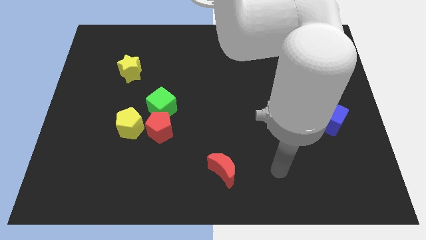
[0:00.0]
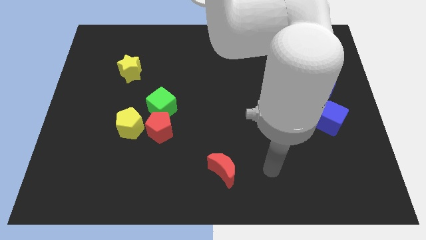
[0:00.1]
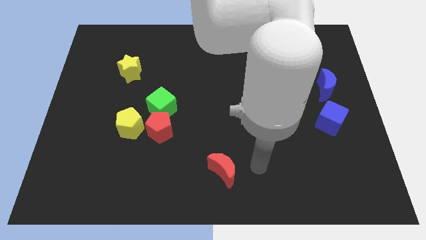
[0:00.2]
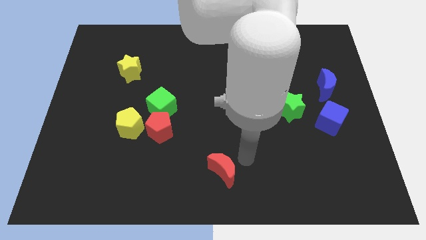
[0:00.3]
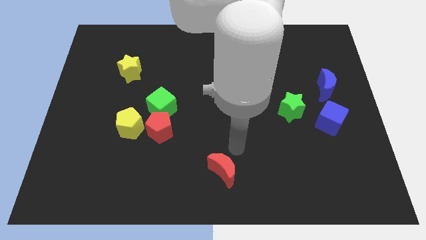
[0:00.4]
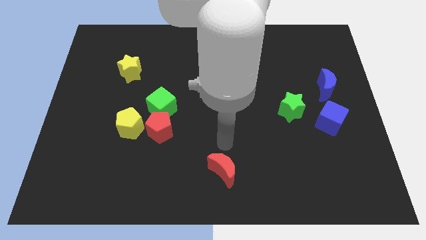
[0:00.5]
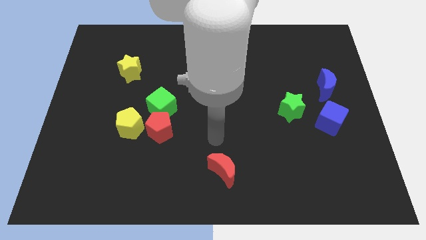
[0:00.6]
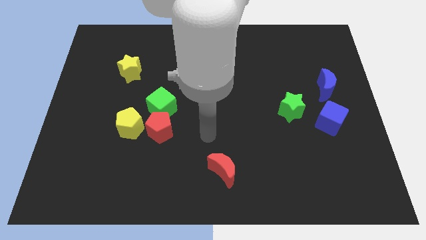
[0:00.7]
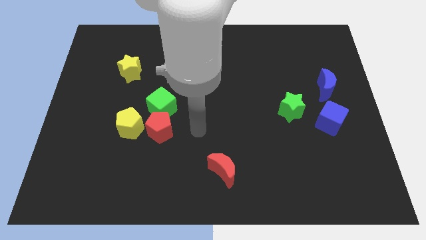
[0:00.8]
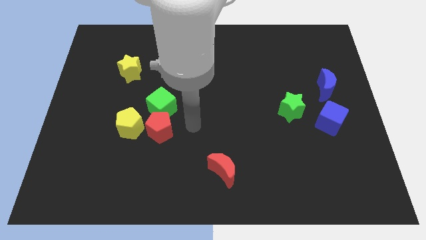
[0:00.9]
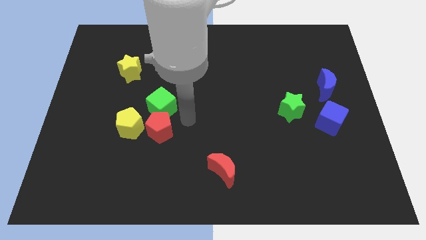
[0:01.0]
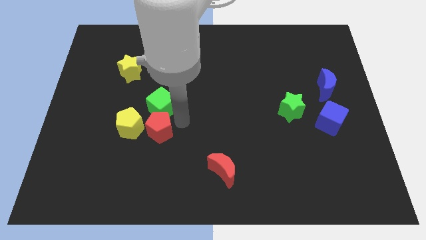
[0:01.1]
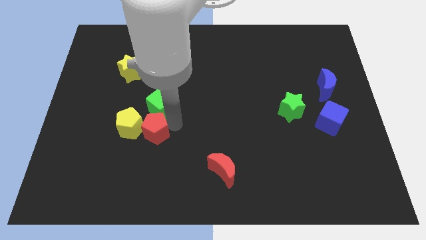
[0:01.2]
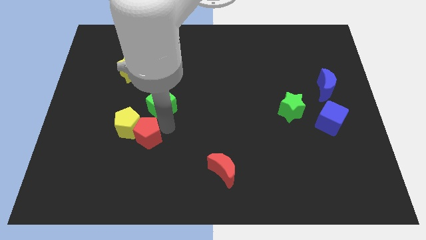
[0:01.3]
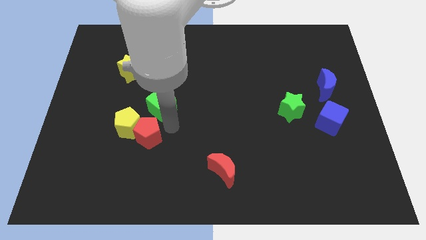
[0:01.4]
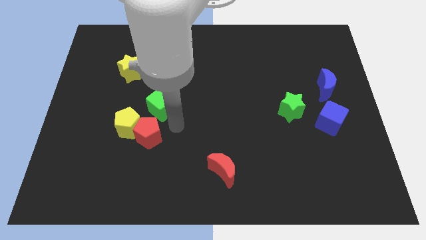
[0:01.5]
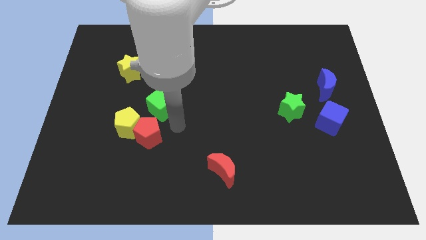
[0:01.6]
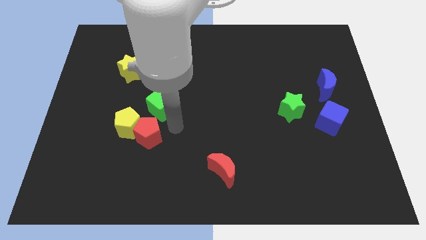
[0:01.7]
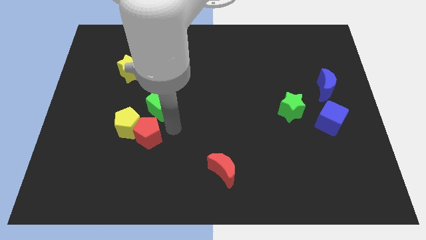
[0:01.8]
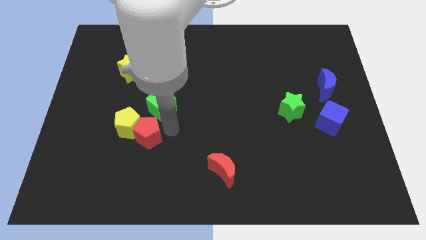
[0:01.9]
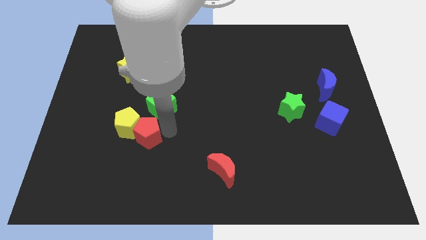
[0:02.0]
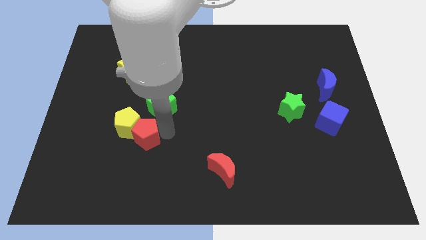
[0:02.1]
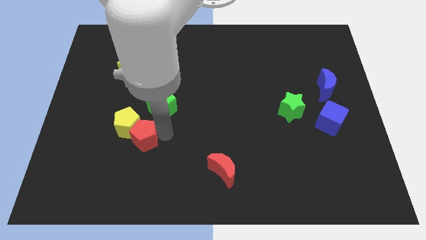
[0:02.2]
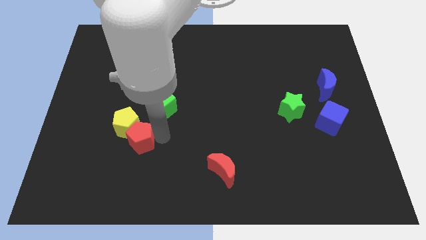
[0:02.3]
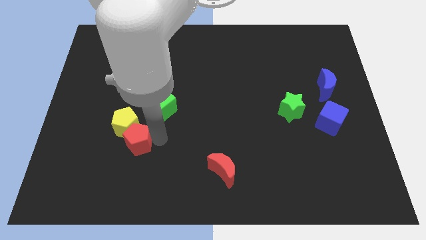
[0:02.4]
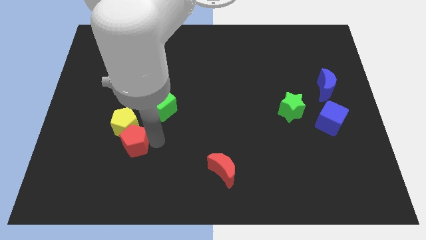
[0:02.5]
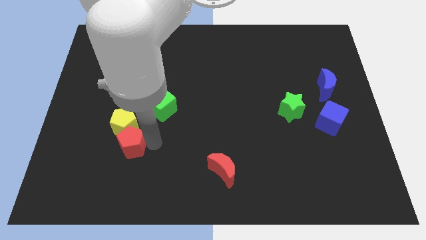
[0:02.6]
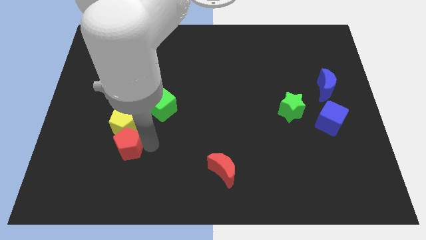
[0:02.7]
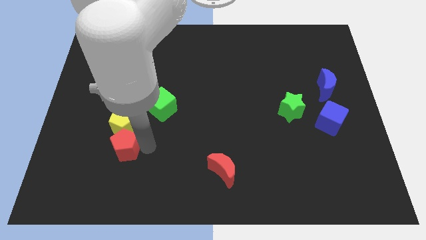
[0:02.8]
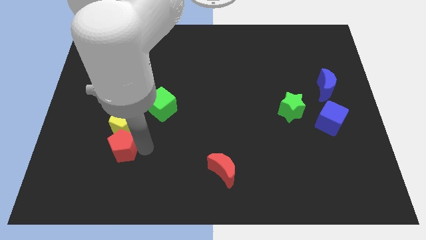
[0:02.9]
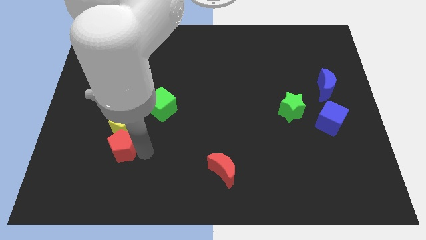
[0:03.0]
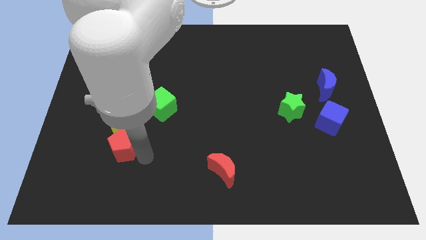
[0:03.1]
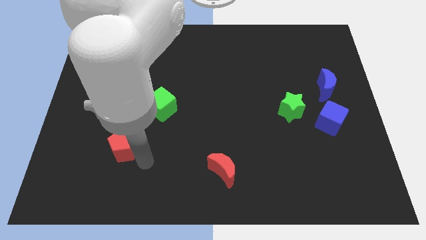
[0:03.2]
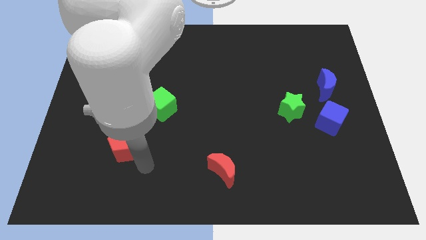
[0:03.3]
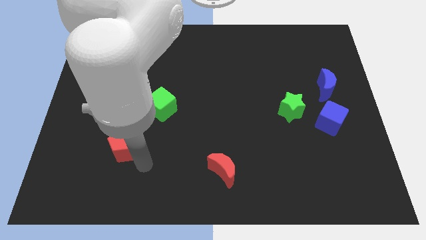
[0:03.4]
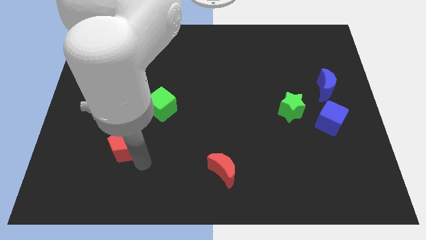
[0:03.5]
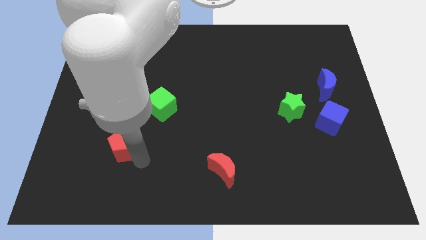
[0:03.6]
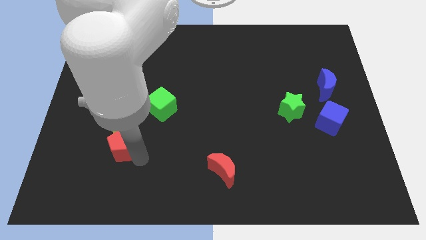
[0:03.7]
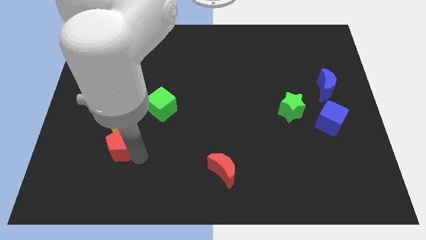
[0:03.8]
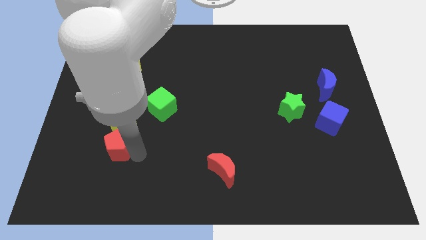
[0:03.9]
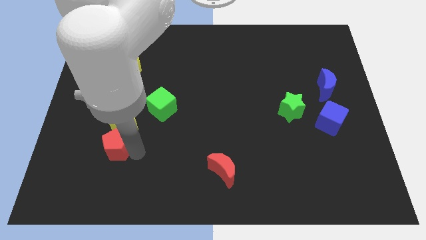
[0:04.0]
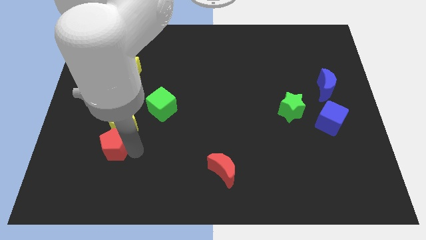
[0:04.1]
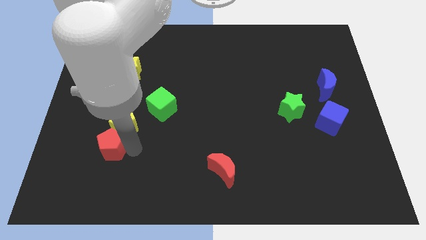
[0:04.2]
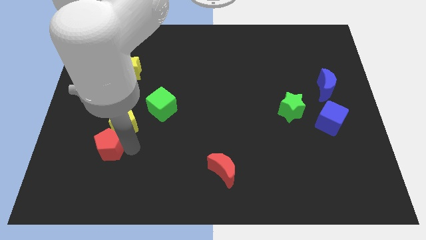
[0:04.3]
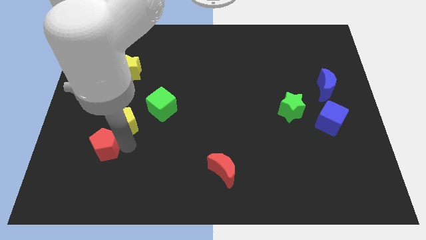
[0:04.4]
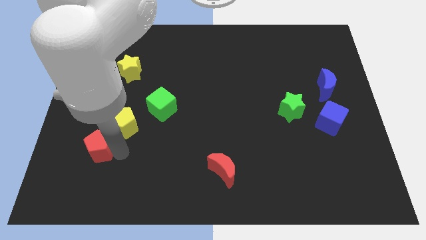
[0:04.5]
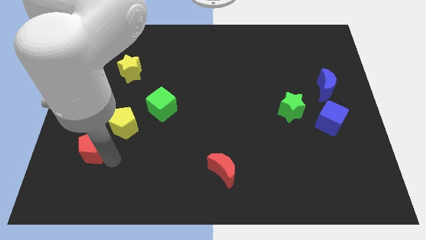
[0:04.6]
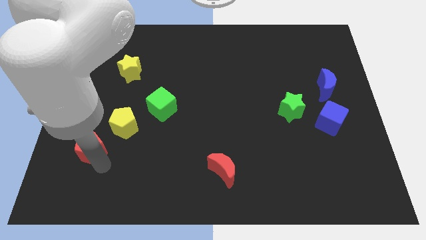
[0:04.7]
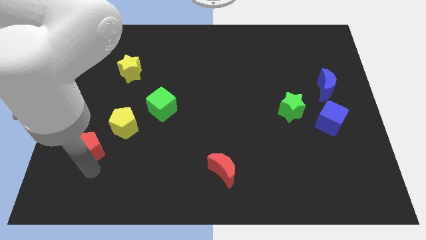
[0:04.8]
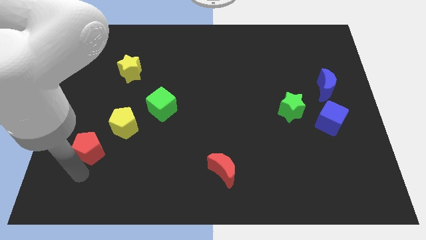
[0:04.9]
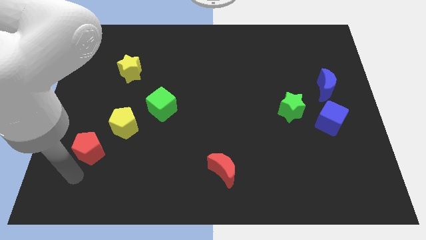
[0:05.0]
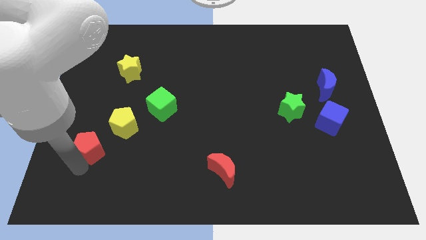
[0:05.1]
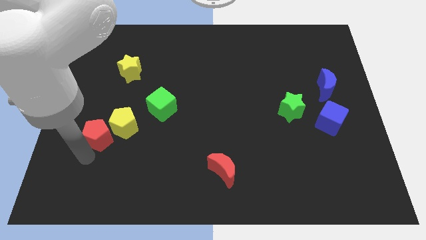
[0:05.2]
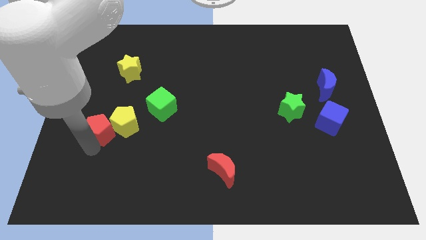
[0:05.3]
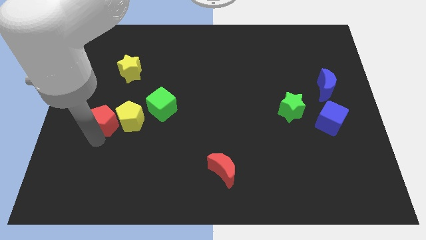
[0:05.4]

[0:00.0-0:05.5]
push the red pentagon just left of the green cube

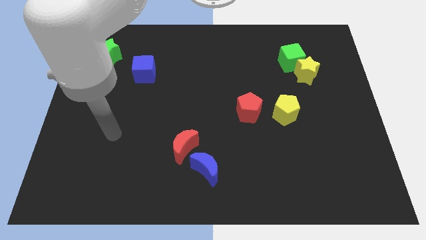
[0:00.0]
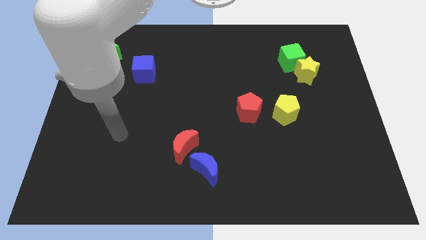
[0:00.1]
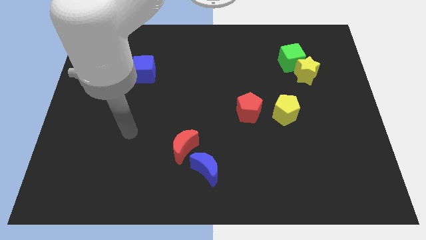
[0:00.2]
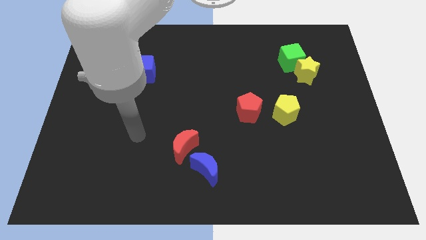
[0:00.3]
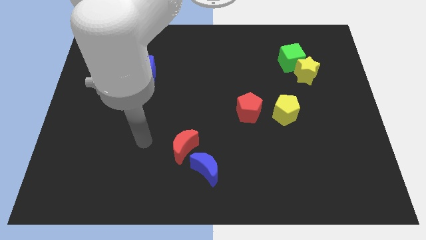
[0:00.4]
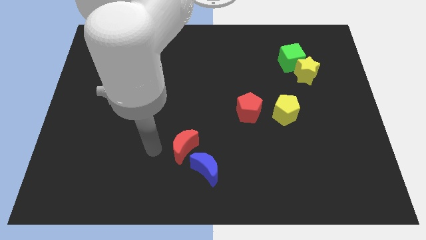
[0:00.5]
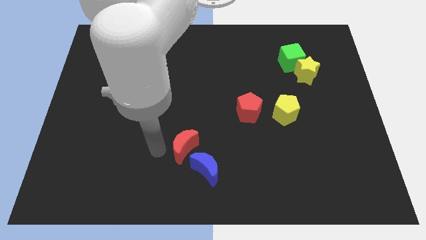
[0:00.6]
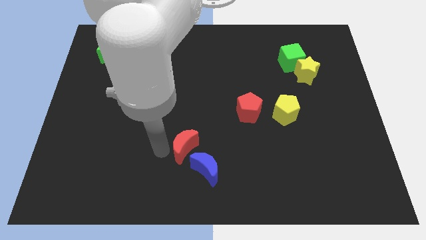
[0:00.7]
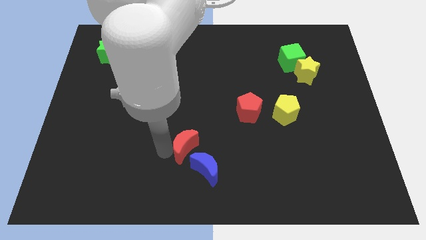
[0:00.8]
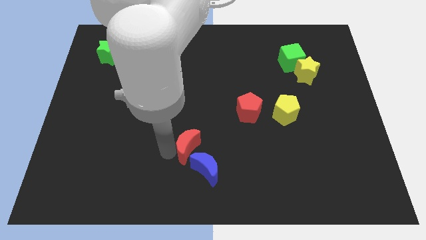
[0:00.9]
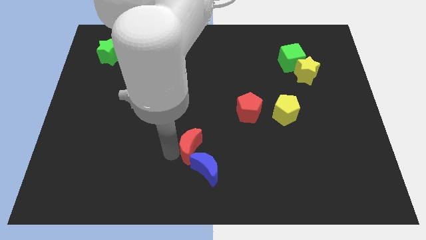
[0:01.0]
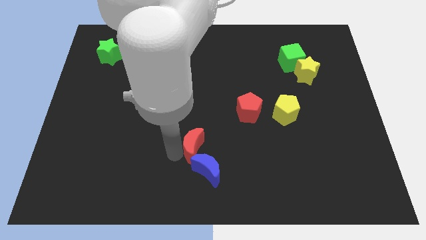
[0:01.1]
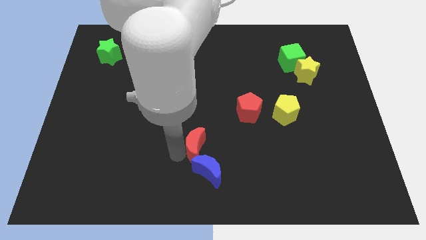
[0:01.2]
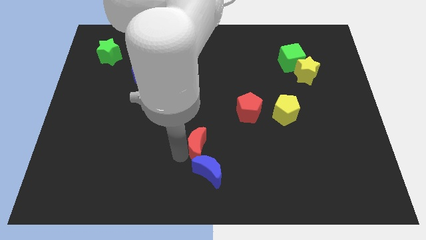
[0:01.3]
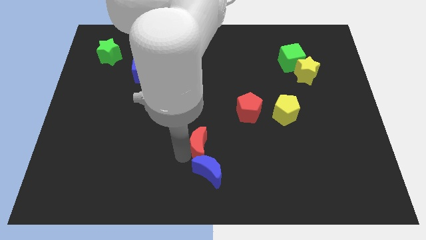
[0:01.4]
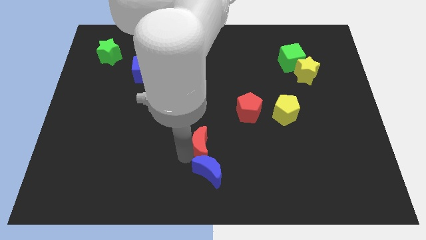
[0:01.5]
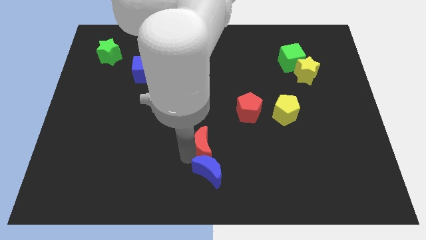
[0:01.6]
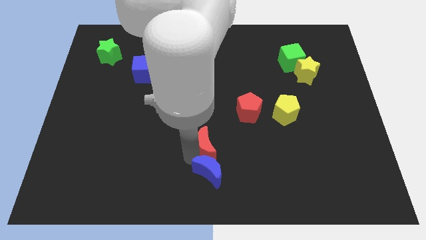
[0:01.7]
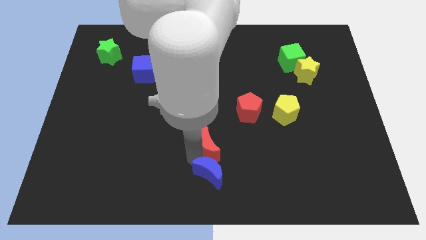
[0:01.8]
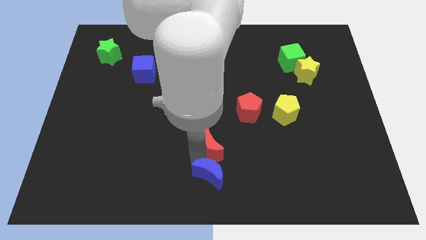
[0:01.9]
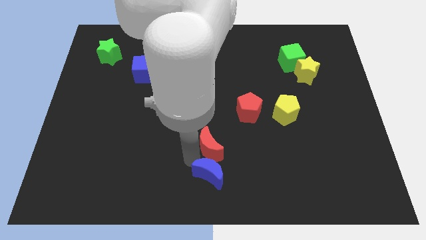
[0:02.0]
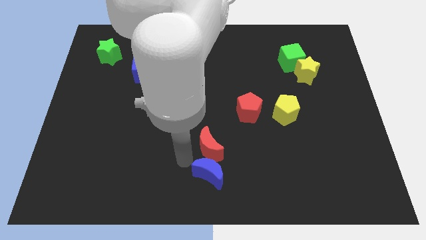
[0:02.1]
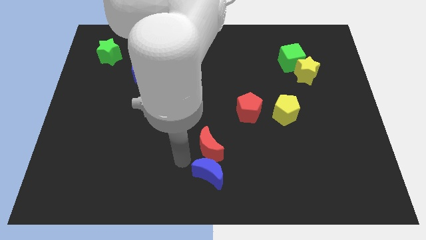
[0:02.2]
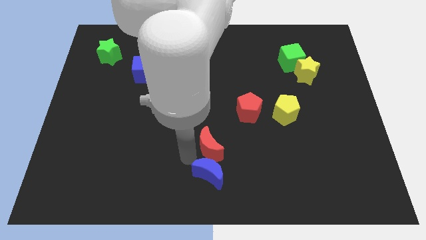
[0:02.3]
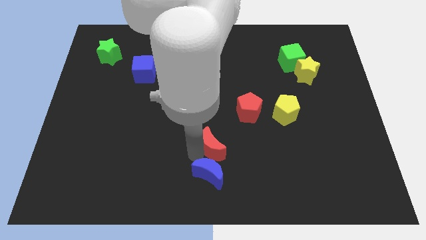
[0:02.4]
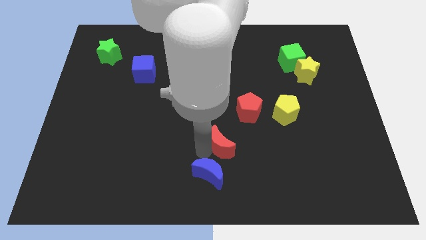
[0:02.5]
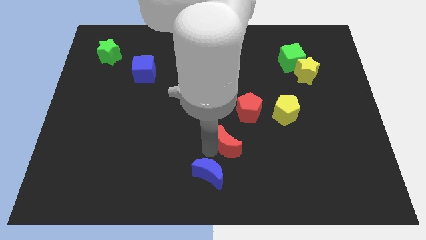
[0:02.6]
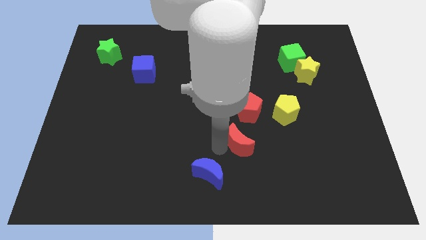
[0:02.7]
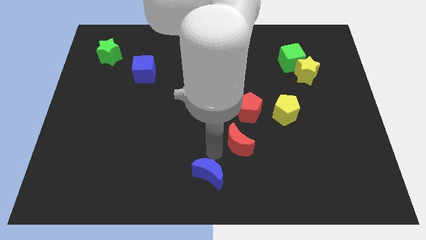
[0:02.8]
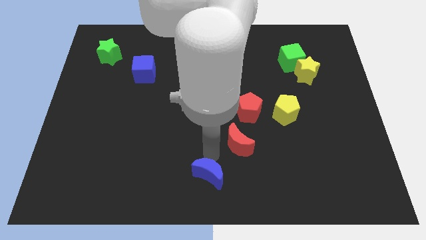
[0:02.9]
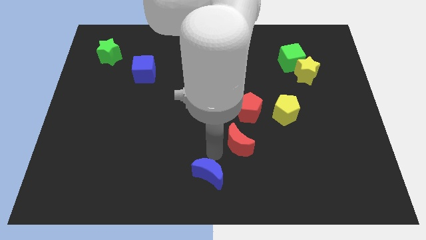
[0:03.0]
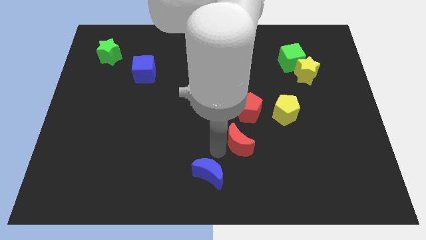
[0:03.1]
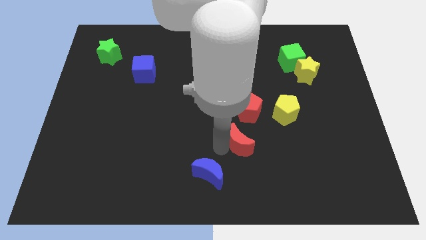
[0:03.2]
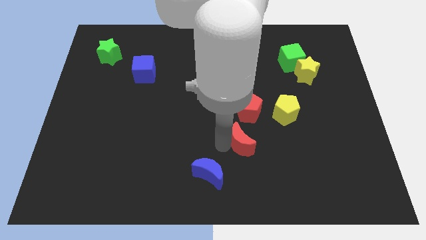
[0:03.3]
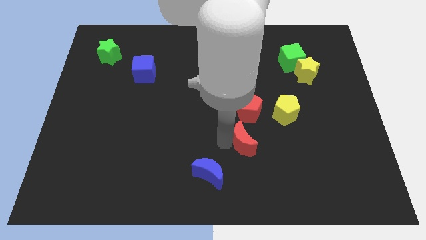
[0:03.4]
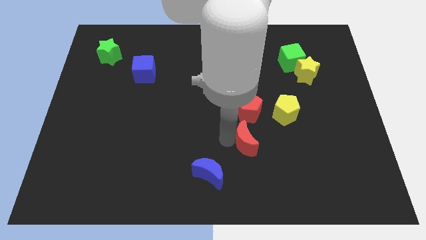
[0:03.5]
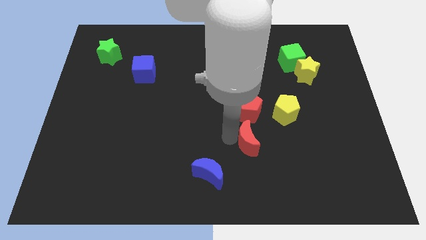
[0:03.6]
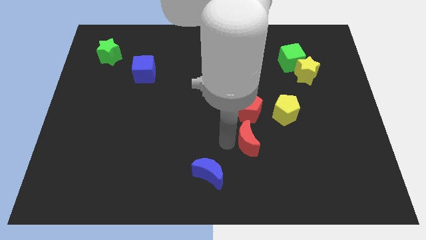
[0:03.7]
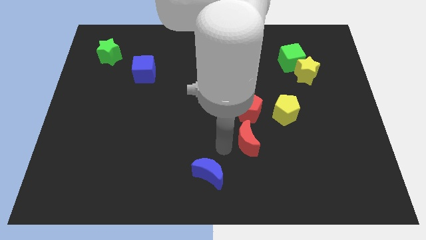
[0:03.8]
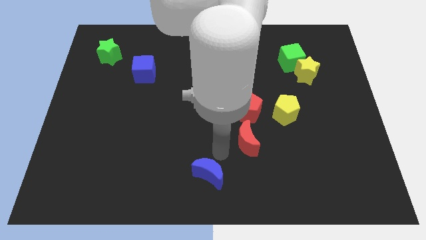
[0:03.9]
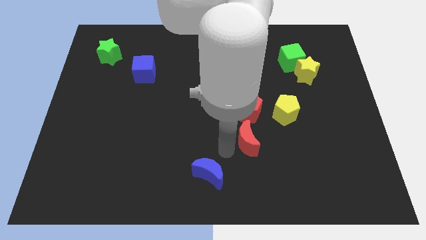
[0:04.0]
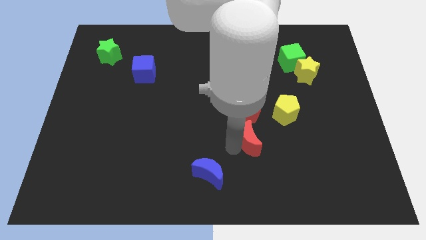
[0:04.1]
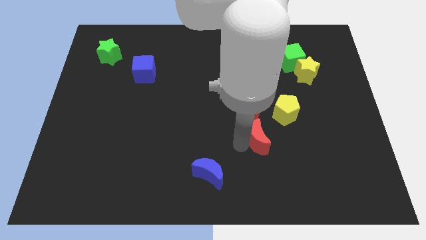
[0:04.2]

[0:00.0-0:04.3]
put the red moon to the bottom right side of the red pentagon
